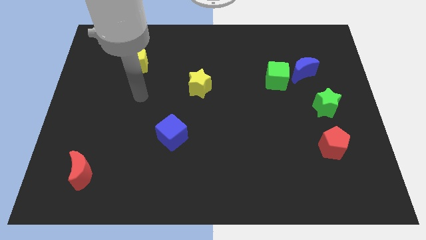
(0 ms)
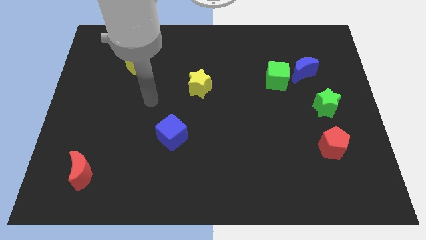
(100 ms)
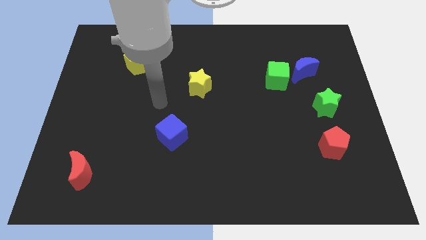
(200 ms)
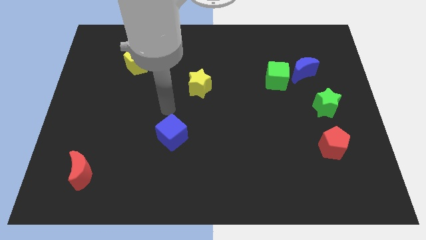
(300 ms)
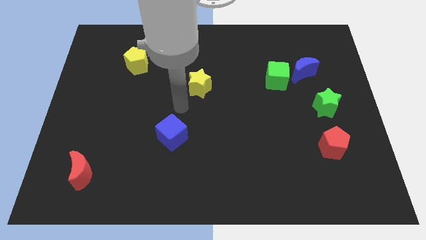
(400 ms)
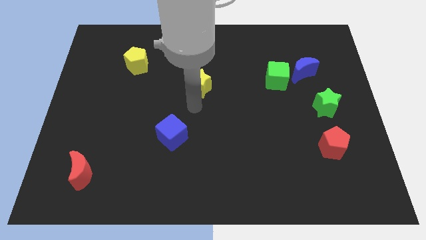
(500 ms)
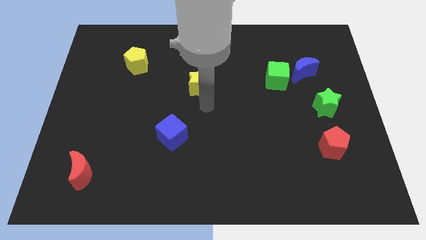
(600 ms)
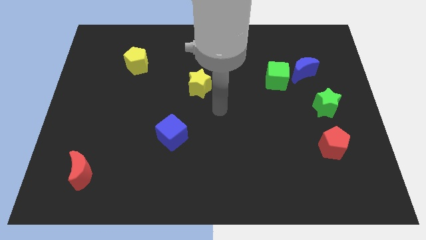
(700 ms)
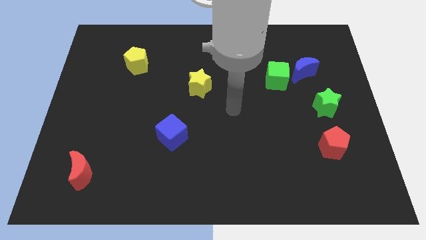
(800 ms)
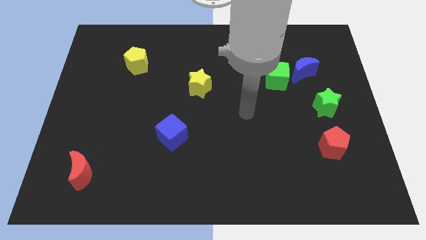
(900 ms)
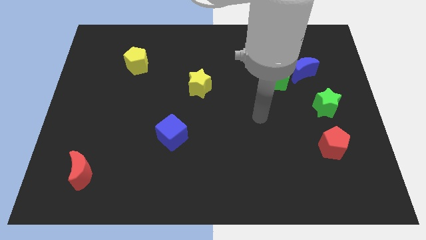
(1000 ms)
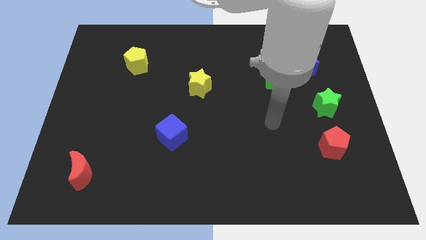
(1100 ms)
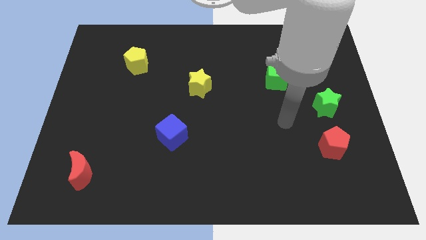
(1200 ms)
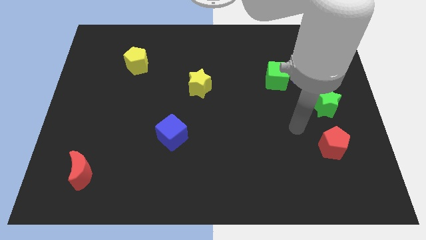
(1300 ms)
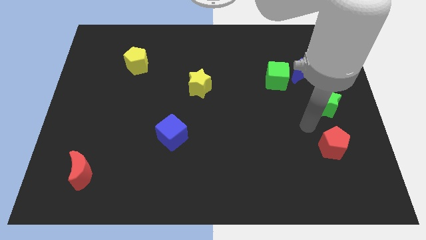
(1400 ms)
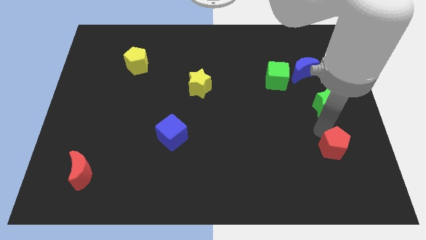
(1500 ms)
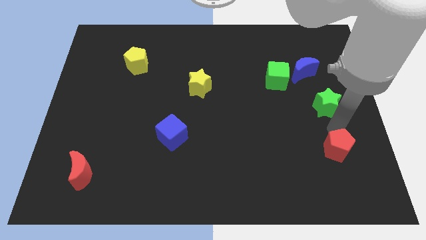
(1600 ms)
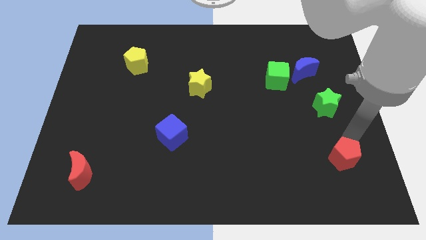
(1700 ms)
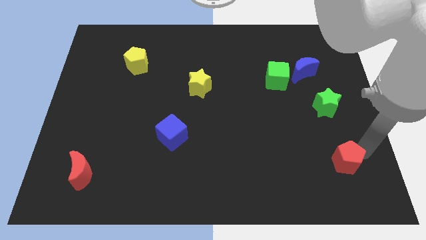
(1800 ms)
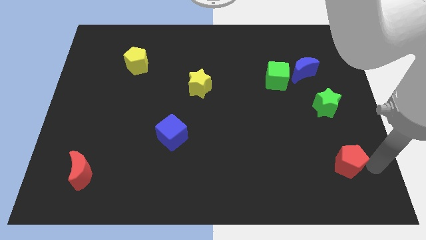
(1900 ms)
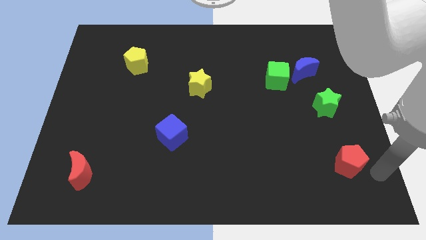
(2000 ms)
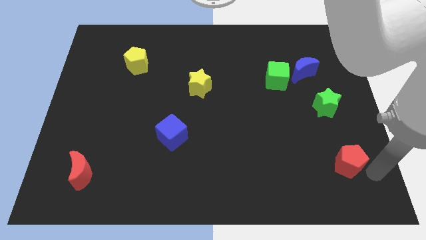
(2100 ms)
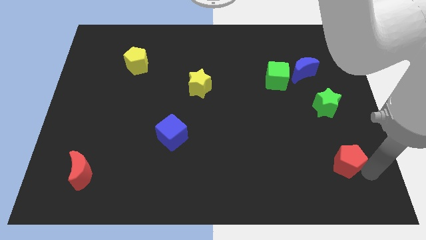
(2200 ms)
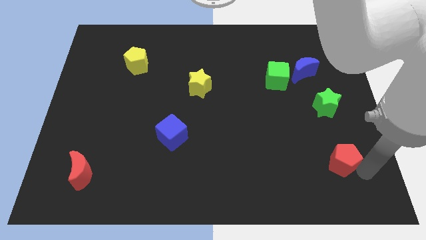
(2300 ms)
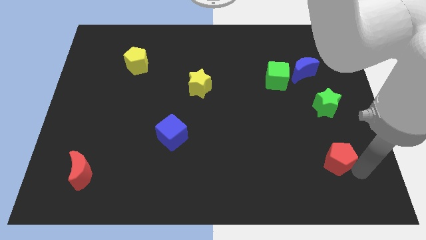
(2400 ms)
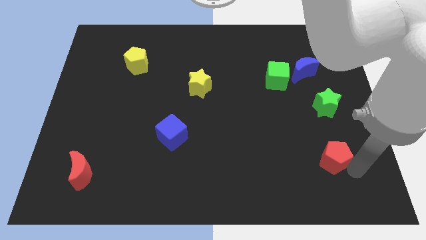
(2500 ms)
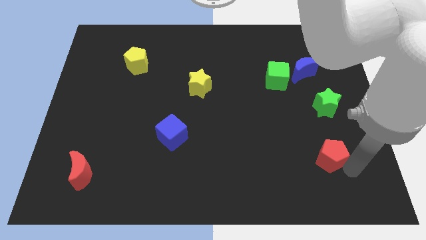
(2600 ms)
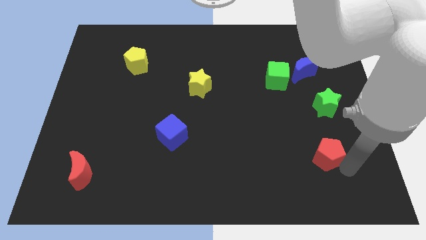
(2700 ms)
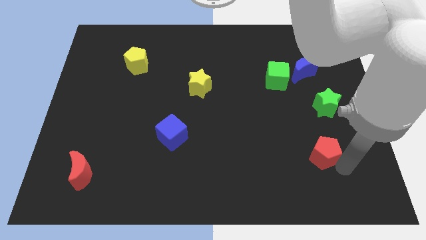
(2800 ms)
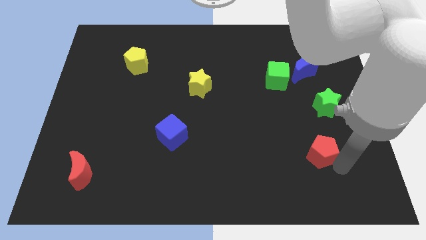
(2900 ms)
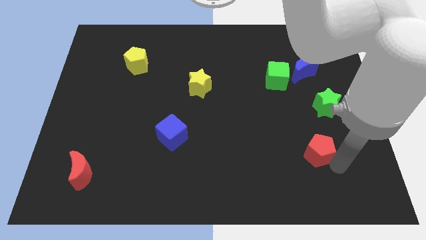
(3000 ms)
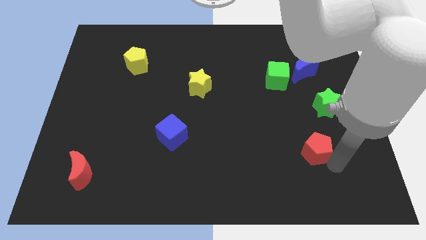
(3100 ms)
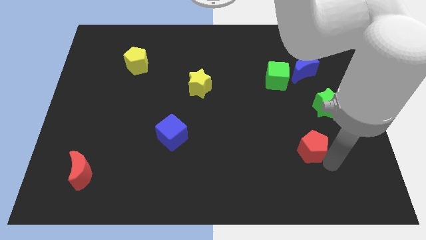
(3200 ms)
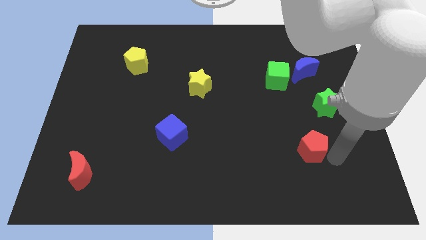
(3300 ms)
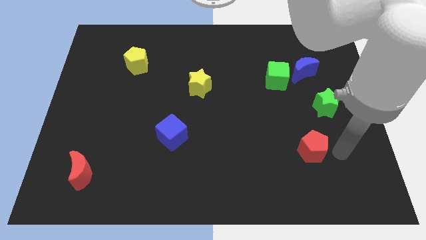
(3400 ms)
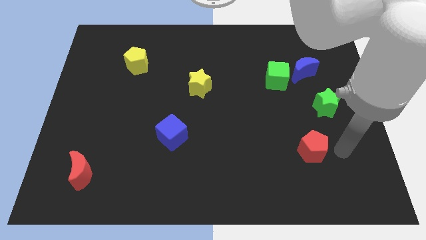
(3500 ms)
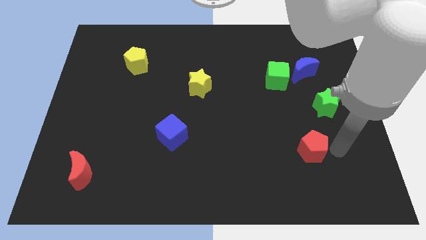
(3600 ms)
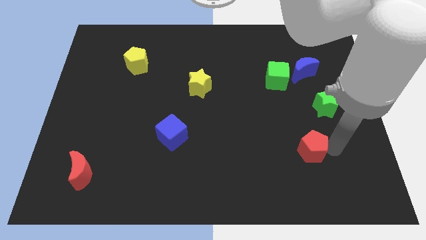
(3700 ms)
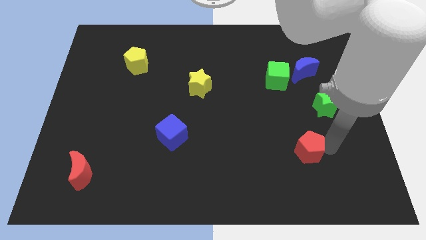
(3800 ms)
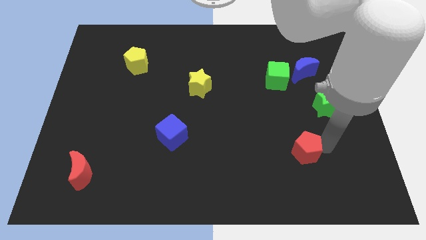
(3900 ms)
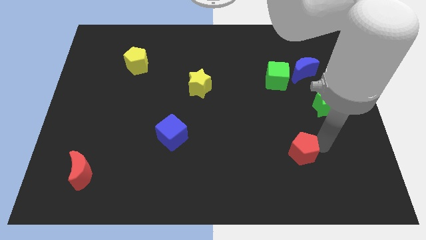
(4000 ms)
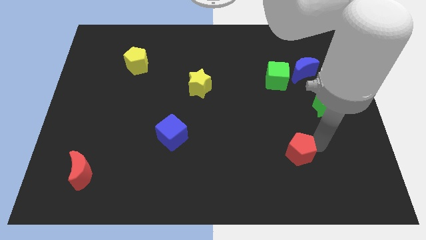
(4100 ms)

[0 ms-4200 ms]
slide the red pentagon left slightly

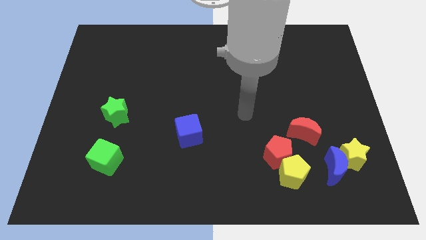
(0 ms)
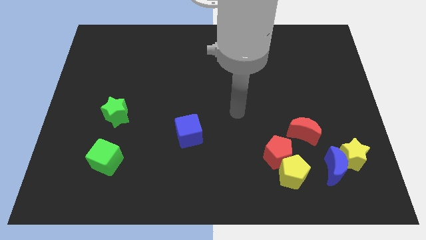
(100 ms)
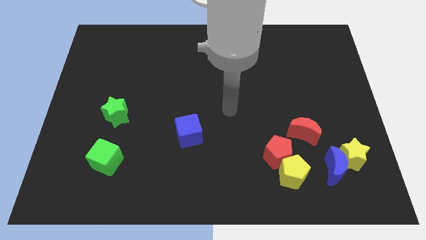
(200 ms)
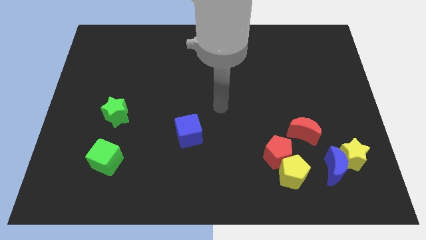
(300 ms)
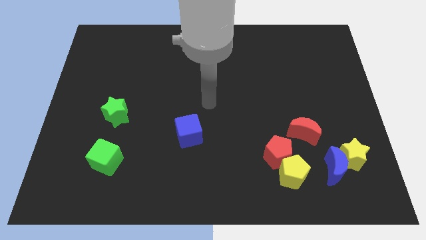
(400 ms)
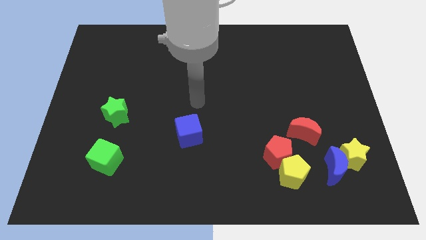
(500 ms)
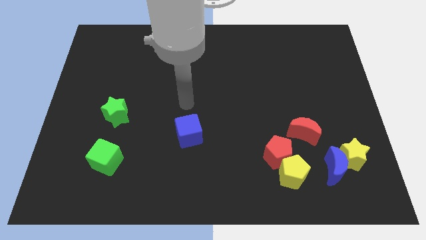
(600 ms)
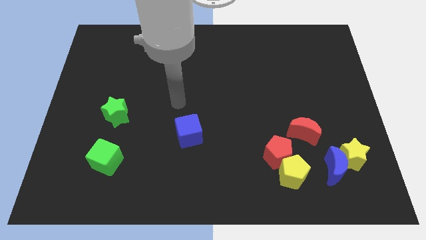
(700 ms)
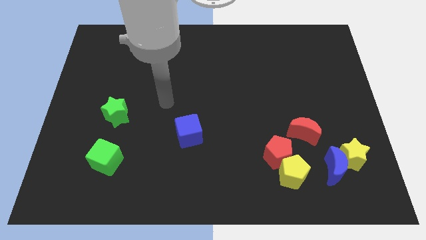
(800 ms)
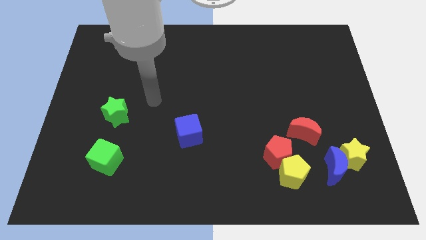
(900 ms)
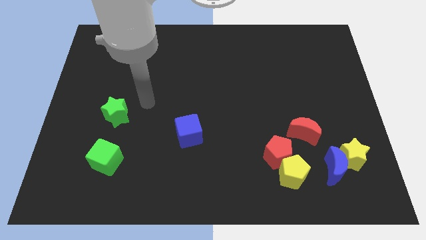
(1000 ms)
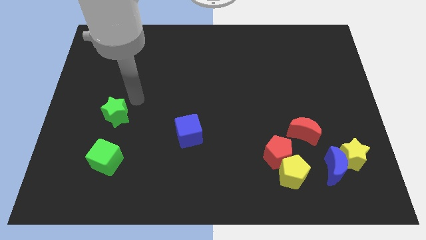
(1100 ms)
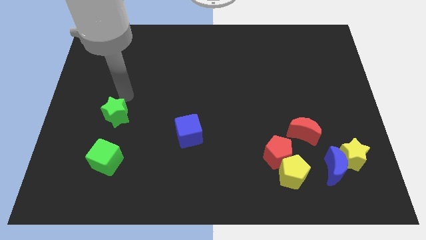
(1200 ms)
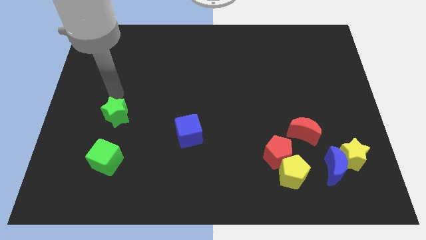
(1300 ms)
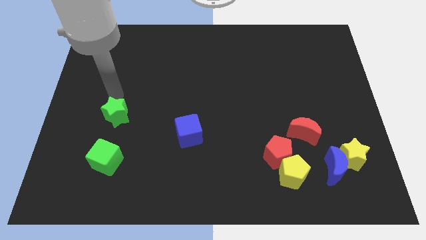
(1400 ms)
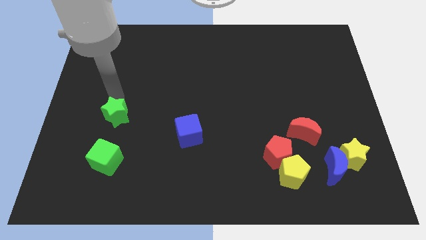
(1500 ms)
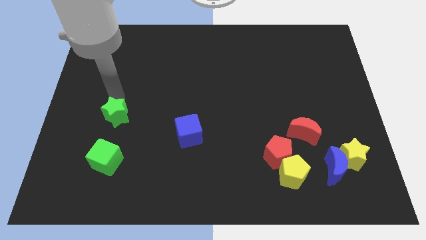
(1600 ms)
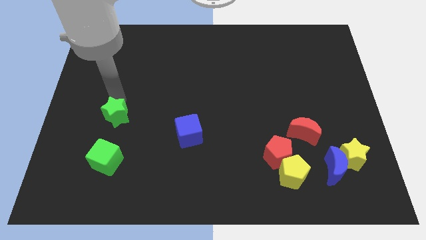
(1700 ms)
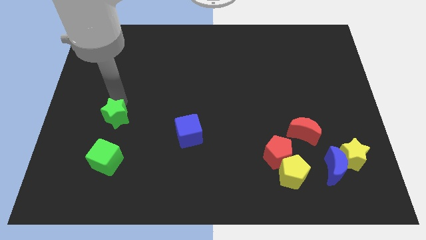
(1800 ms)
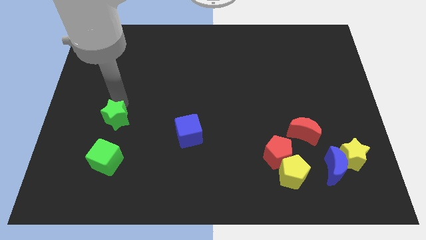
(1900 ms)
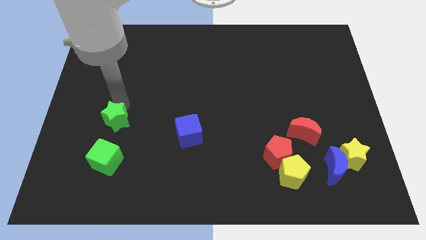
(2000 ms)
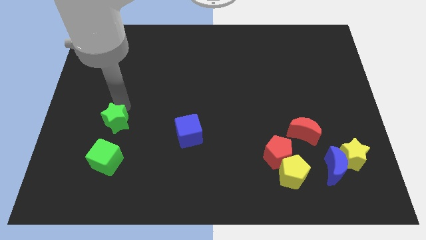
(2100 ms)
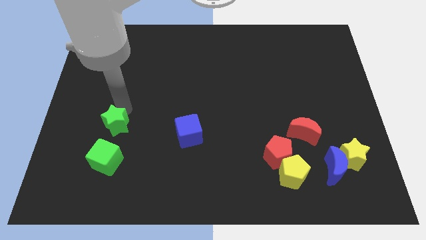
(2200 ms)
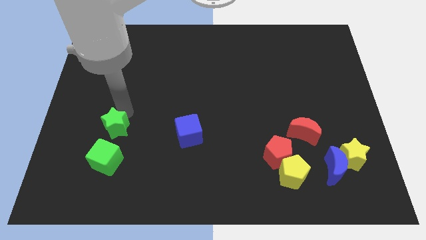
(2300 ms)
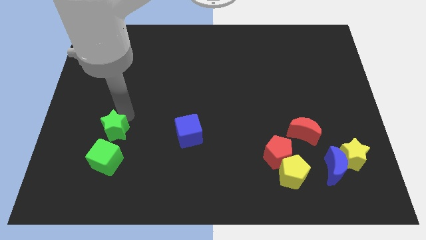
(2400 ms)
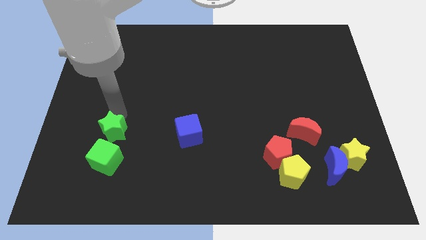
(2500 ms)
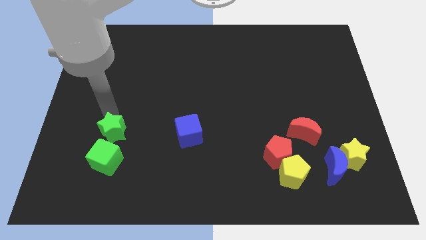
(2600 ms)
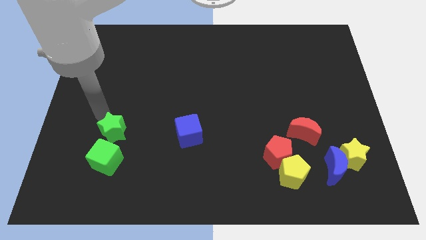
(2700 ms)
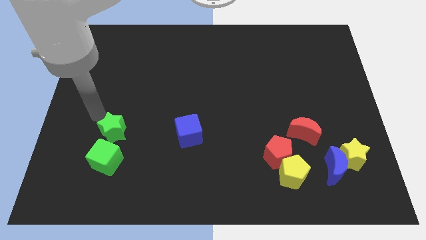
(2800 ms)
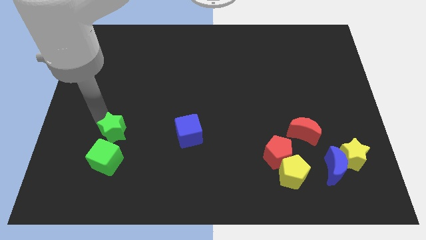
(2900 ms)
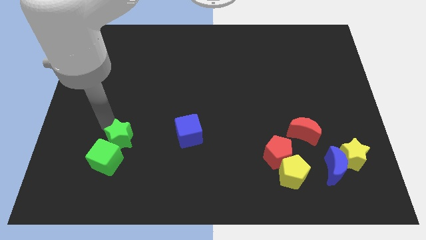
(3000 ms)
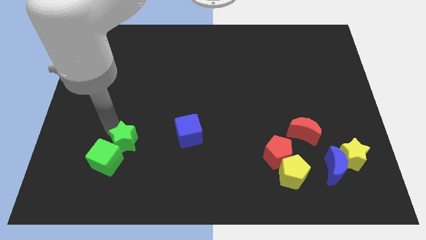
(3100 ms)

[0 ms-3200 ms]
push the green star somewhat diagonally down and right

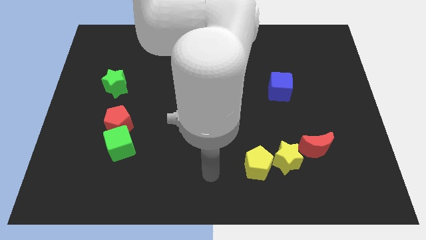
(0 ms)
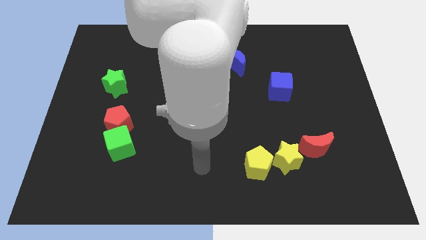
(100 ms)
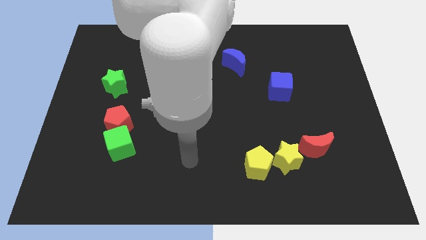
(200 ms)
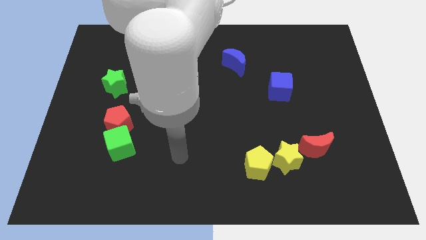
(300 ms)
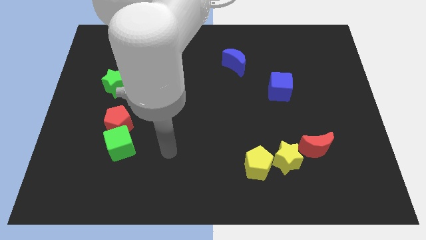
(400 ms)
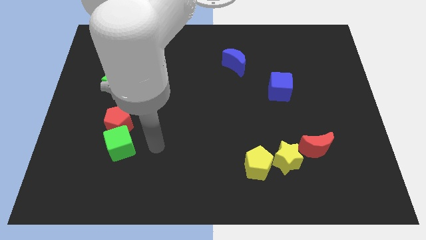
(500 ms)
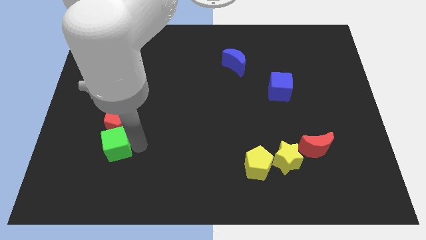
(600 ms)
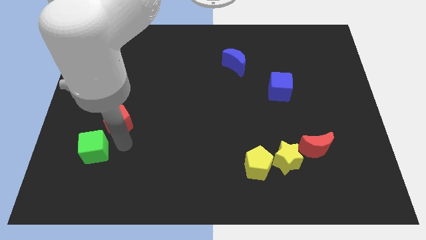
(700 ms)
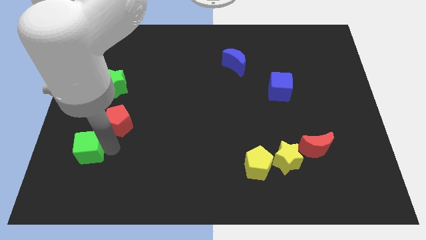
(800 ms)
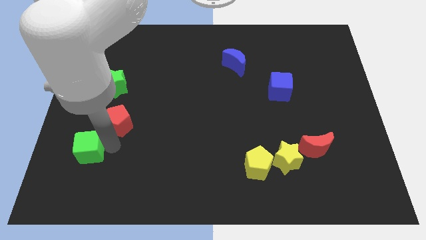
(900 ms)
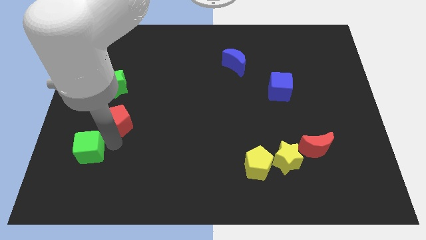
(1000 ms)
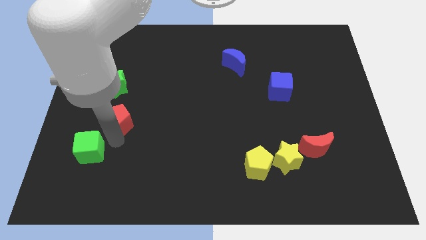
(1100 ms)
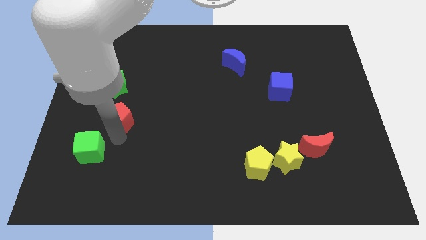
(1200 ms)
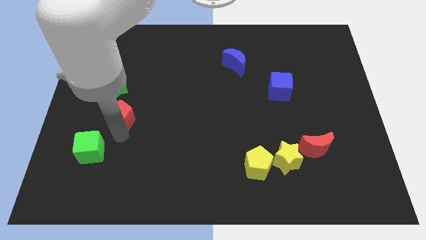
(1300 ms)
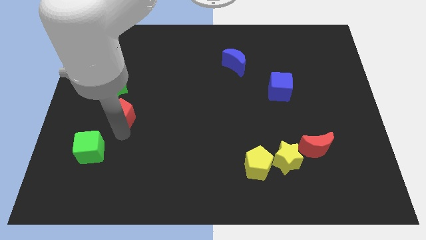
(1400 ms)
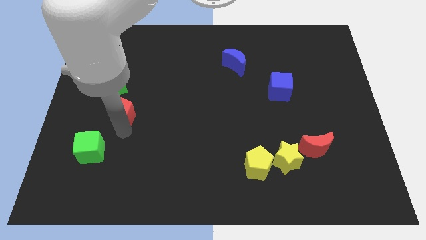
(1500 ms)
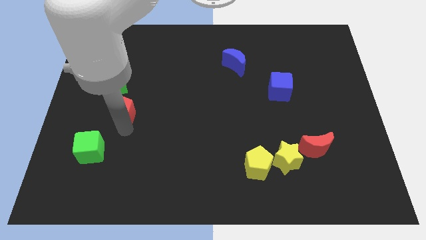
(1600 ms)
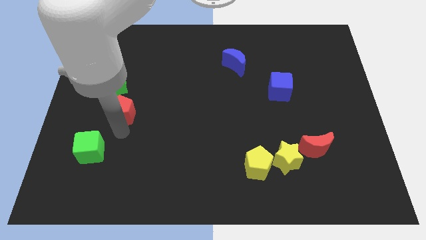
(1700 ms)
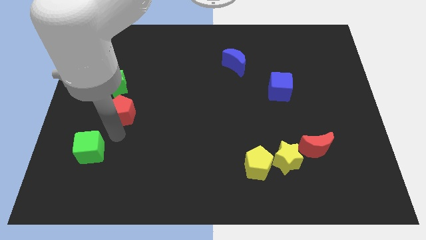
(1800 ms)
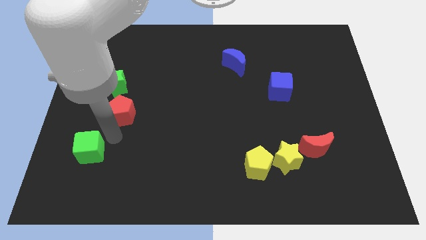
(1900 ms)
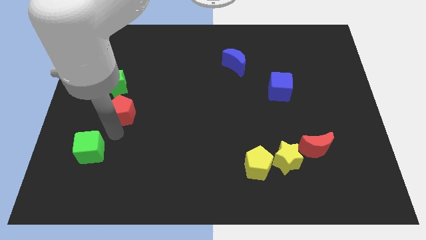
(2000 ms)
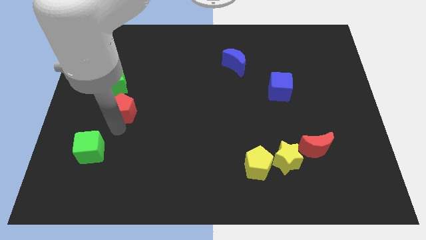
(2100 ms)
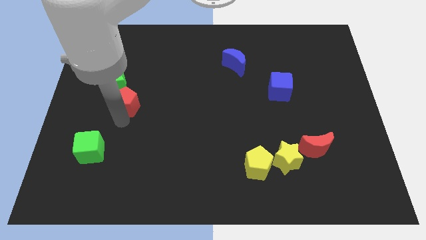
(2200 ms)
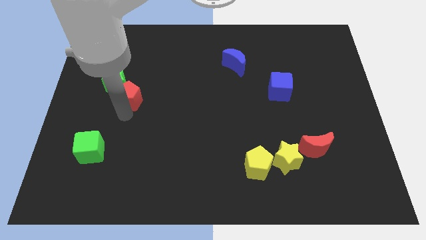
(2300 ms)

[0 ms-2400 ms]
slightly move the red pentagon up
